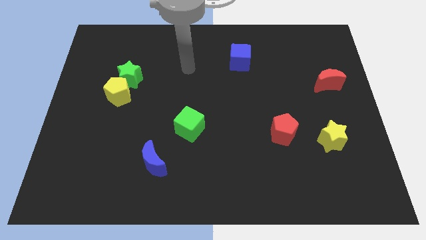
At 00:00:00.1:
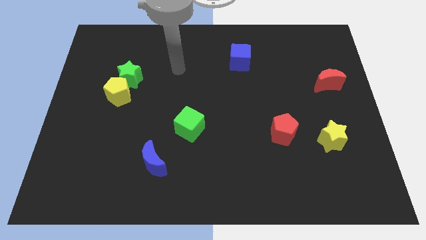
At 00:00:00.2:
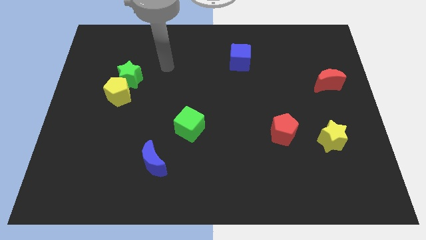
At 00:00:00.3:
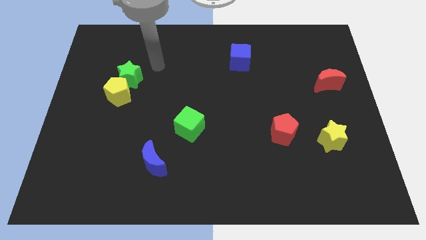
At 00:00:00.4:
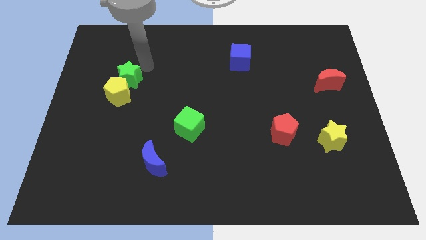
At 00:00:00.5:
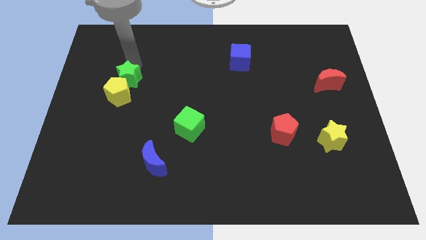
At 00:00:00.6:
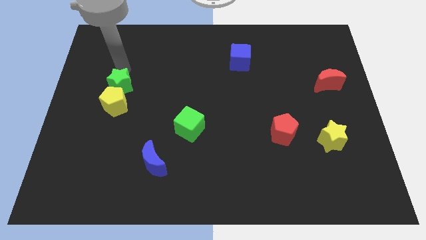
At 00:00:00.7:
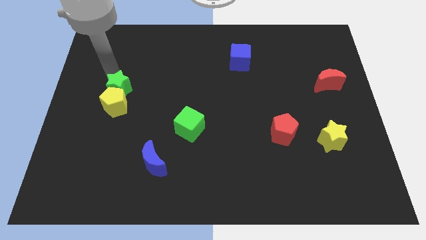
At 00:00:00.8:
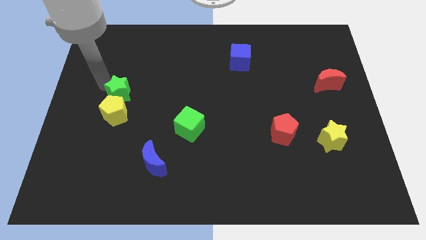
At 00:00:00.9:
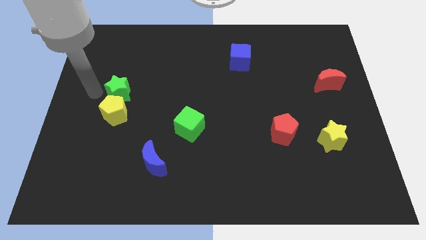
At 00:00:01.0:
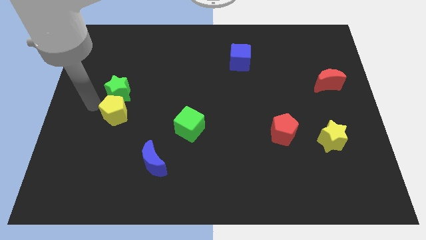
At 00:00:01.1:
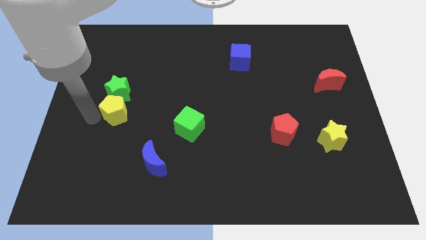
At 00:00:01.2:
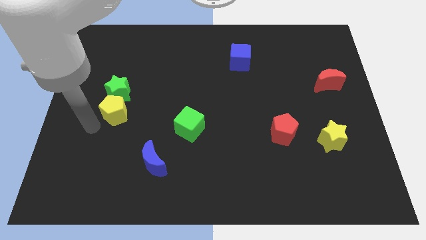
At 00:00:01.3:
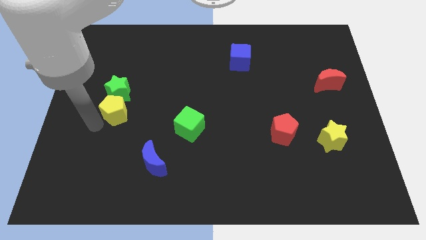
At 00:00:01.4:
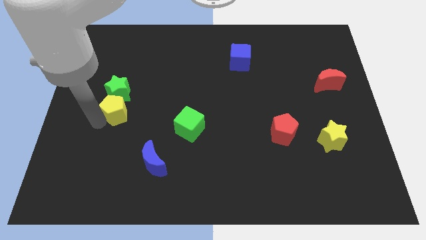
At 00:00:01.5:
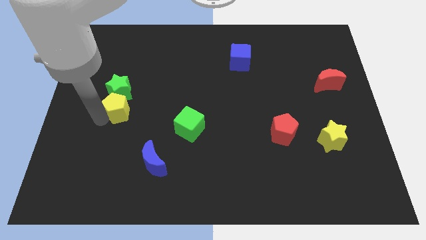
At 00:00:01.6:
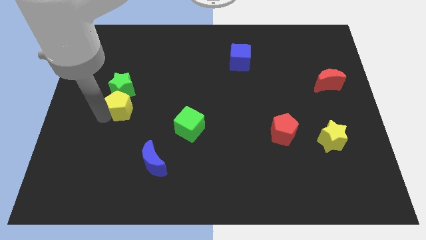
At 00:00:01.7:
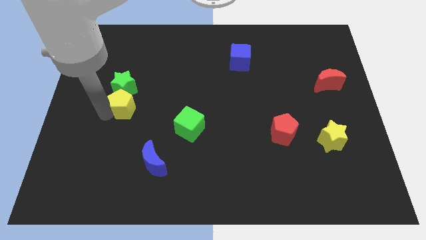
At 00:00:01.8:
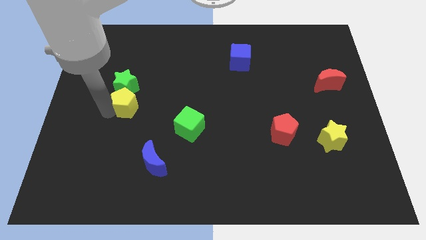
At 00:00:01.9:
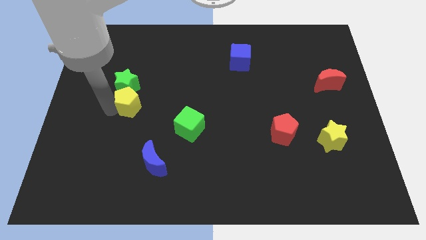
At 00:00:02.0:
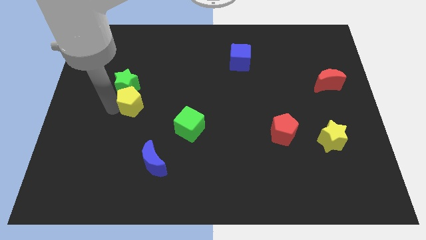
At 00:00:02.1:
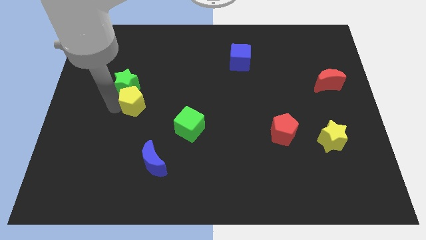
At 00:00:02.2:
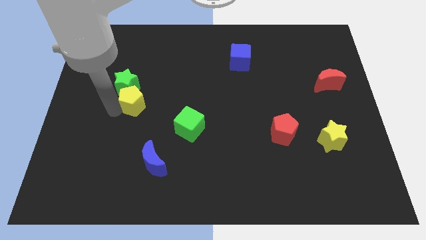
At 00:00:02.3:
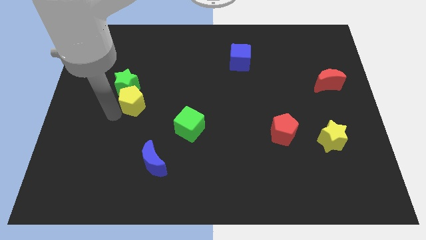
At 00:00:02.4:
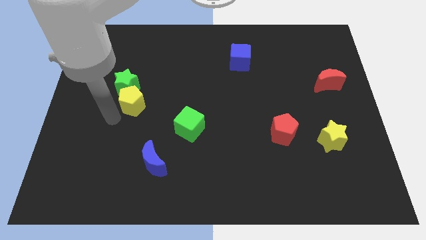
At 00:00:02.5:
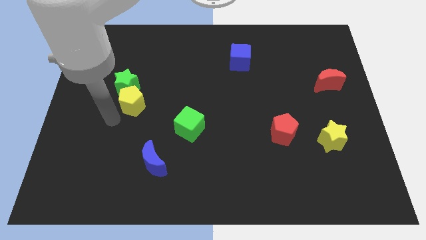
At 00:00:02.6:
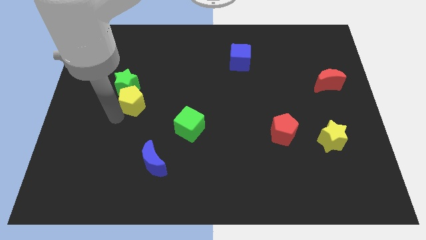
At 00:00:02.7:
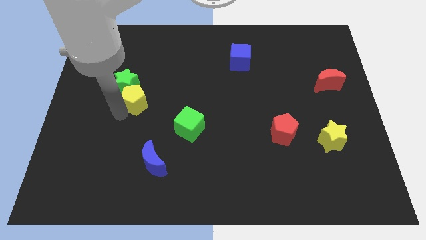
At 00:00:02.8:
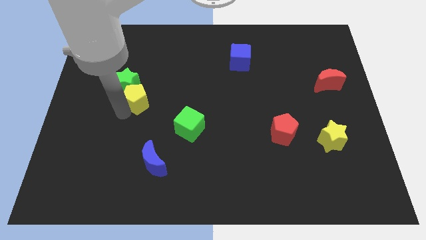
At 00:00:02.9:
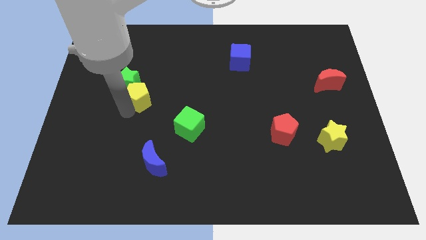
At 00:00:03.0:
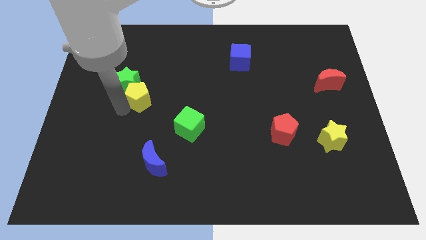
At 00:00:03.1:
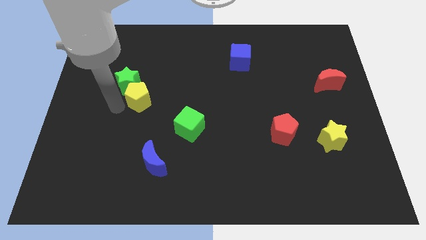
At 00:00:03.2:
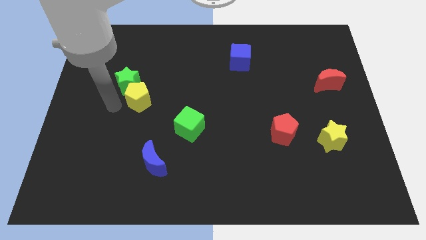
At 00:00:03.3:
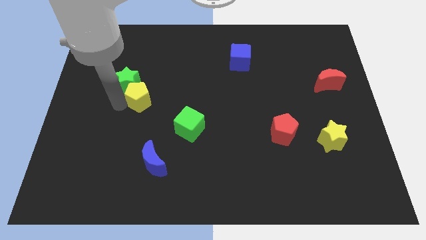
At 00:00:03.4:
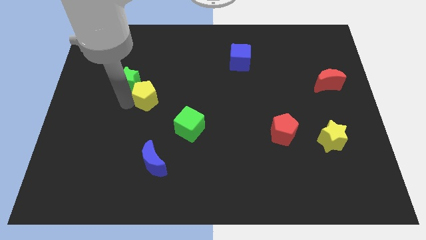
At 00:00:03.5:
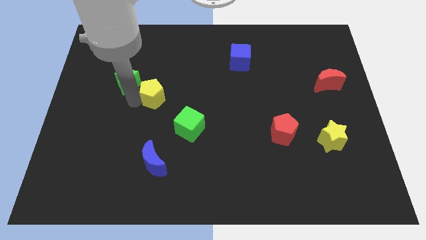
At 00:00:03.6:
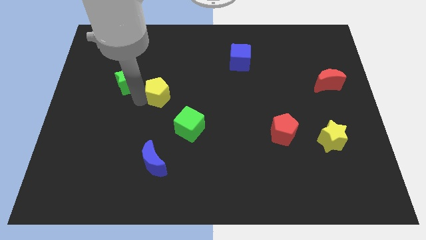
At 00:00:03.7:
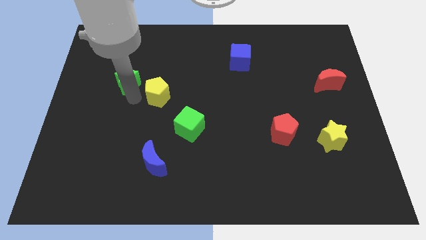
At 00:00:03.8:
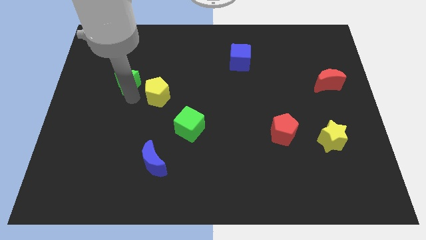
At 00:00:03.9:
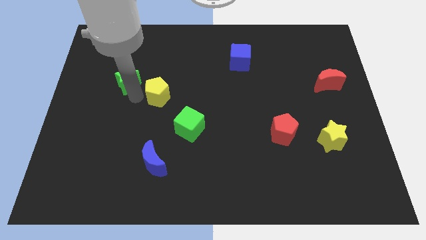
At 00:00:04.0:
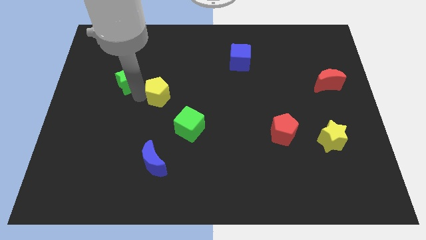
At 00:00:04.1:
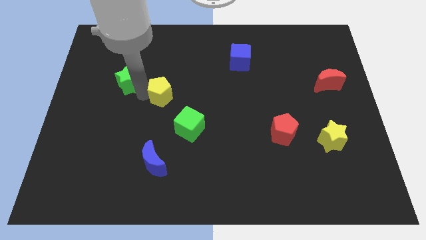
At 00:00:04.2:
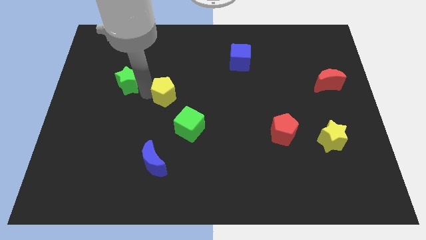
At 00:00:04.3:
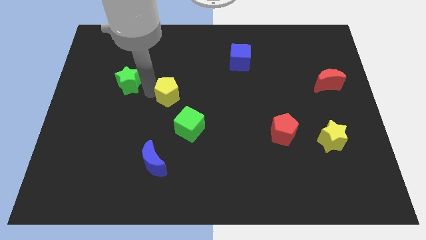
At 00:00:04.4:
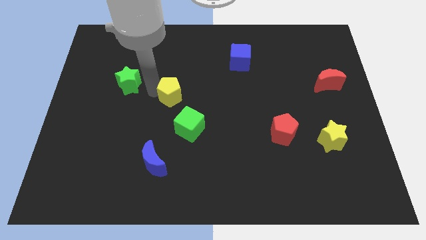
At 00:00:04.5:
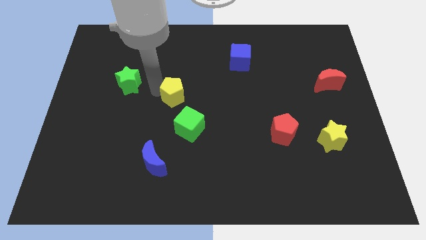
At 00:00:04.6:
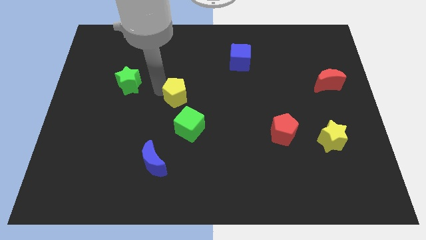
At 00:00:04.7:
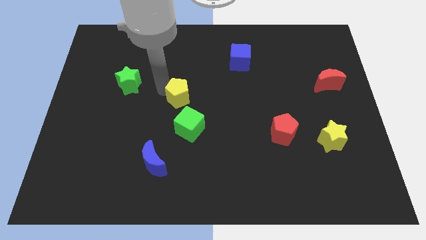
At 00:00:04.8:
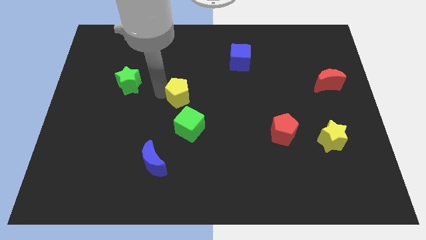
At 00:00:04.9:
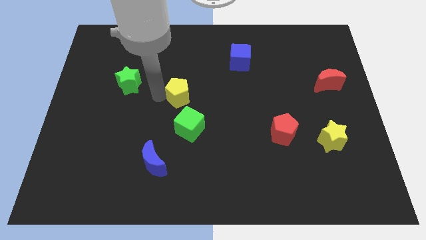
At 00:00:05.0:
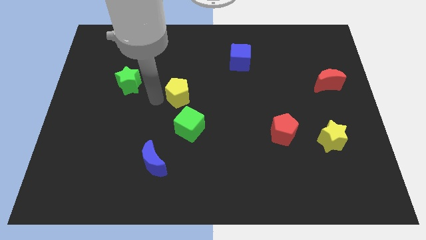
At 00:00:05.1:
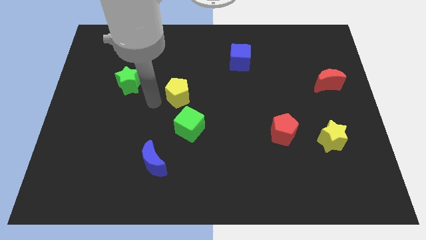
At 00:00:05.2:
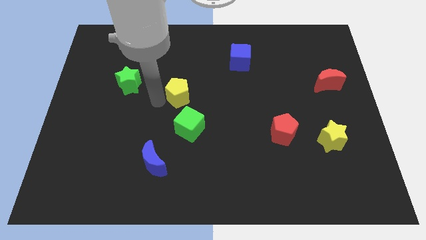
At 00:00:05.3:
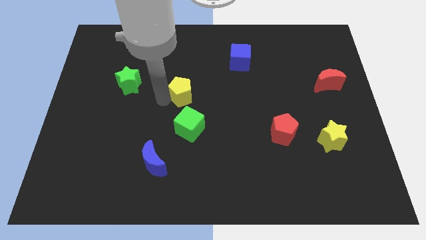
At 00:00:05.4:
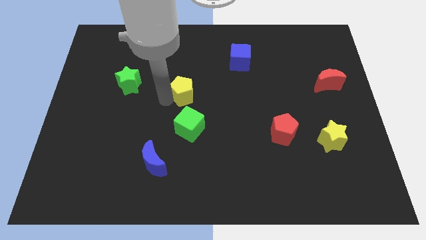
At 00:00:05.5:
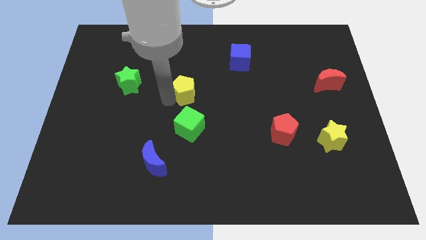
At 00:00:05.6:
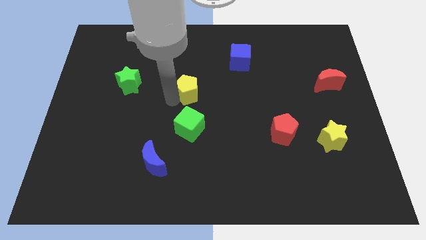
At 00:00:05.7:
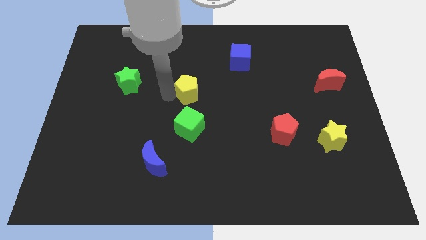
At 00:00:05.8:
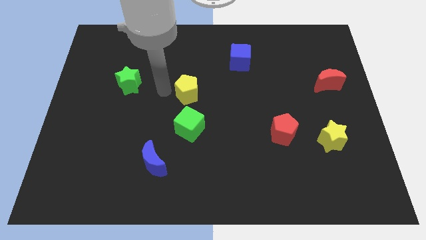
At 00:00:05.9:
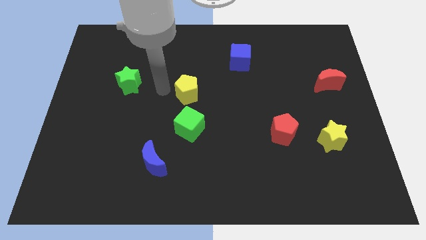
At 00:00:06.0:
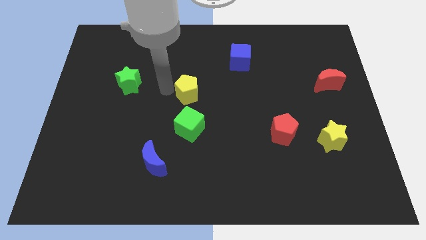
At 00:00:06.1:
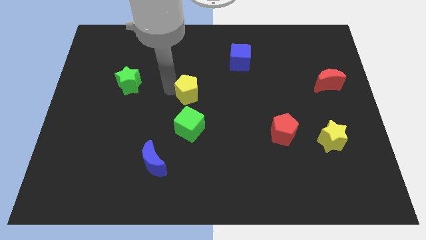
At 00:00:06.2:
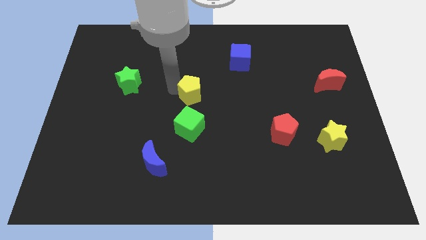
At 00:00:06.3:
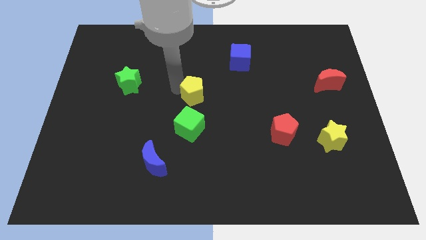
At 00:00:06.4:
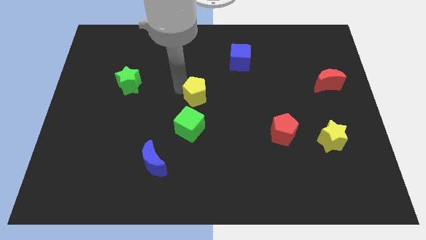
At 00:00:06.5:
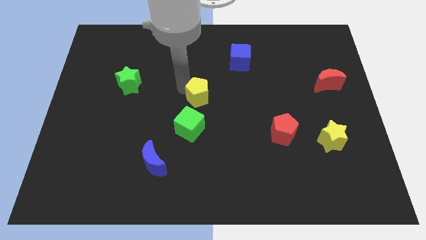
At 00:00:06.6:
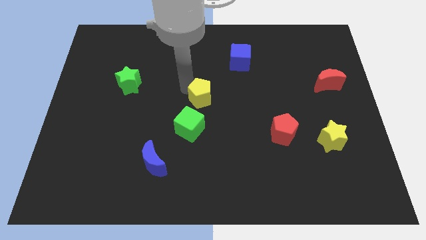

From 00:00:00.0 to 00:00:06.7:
push the yellow pentagon right

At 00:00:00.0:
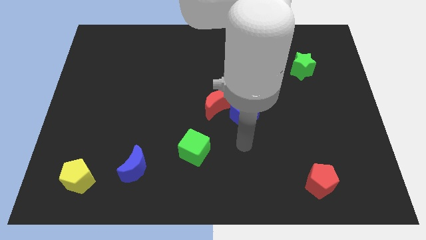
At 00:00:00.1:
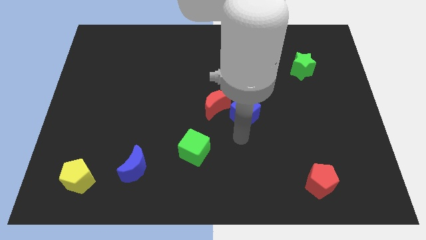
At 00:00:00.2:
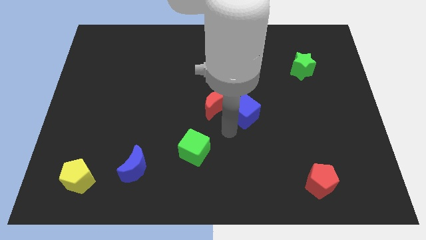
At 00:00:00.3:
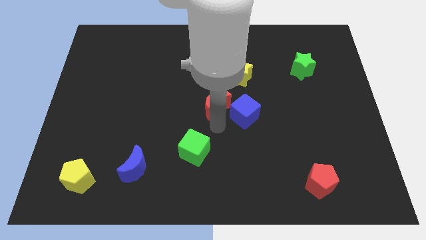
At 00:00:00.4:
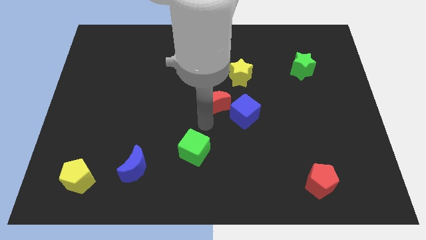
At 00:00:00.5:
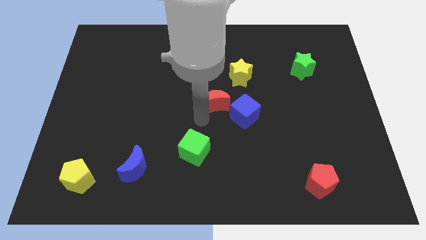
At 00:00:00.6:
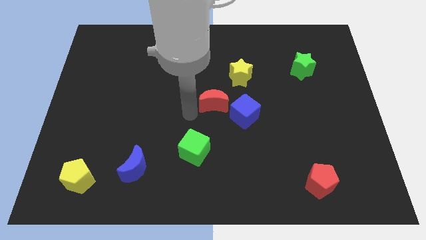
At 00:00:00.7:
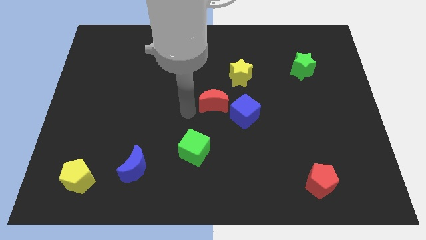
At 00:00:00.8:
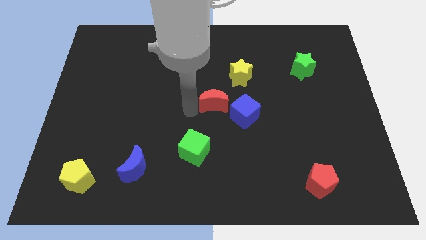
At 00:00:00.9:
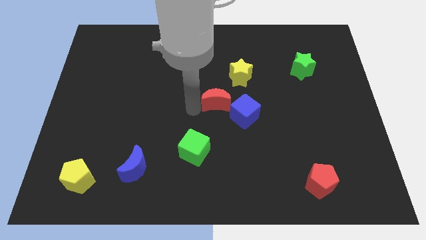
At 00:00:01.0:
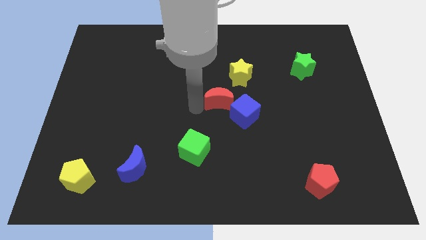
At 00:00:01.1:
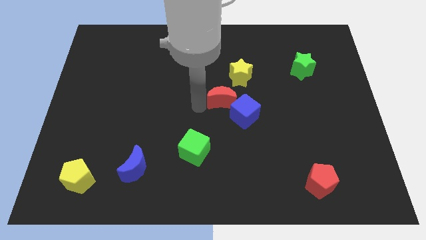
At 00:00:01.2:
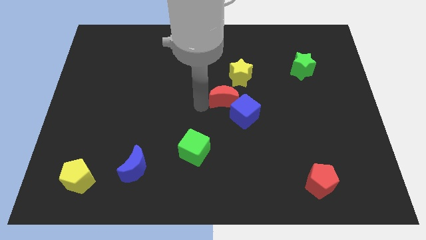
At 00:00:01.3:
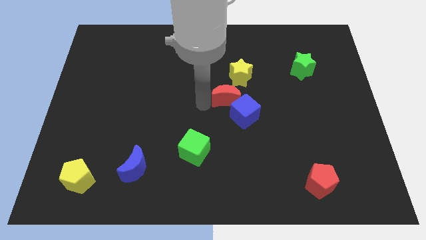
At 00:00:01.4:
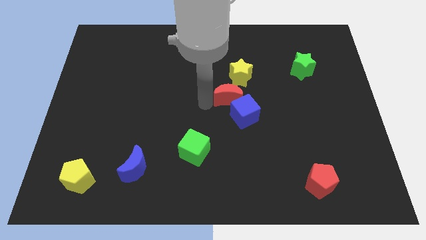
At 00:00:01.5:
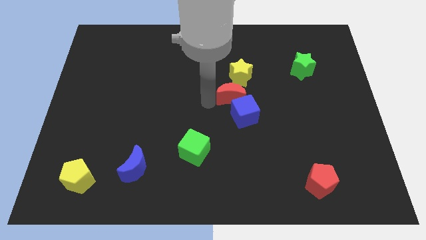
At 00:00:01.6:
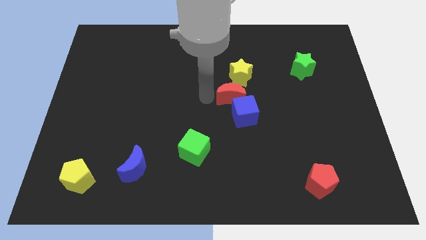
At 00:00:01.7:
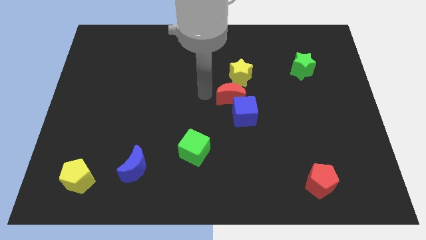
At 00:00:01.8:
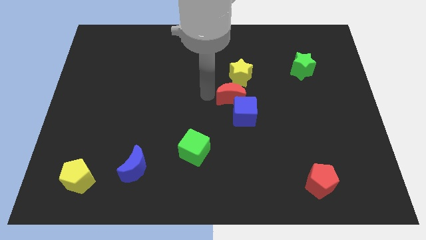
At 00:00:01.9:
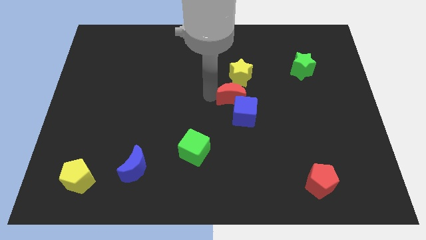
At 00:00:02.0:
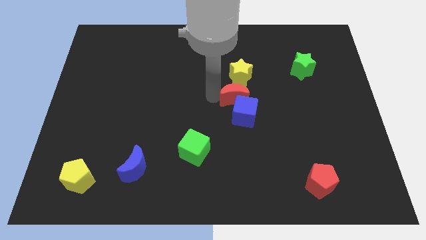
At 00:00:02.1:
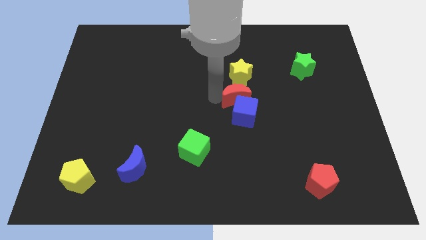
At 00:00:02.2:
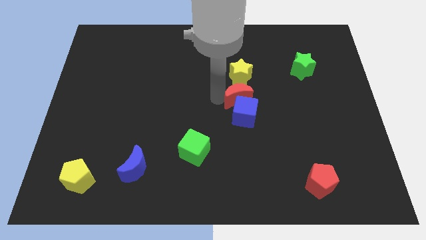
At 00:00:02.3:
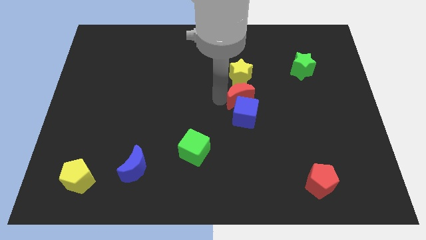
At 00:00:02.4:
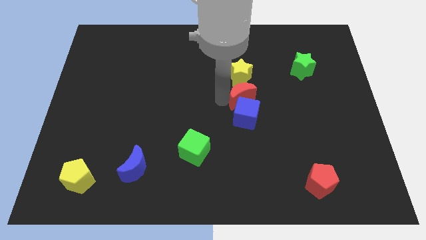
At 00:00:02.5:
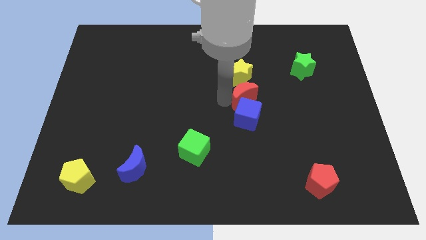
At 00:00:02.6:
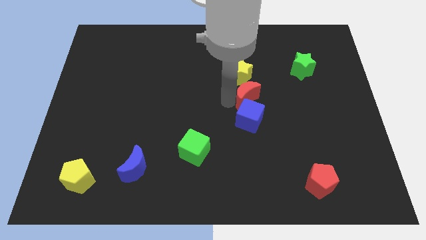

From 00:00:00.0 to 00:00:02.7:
slide the red moon right somewhat
